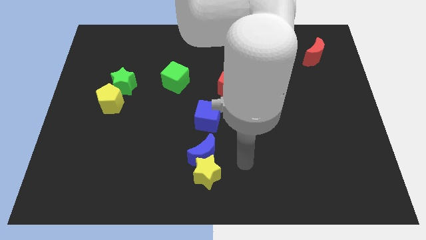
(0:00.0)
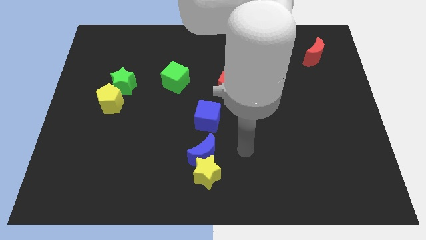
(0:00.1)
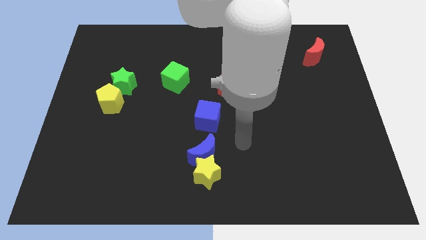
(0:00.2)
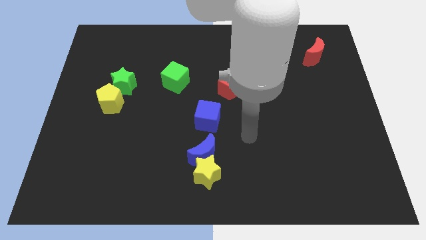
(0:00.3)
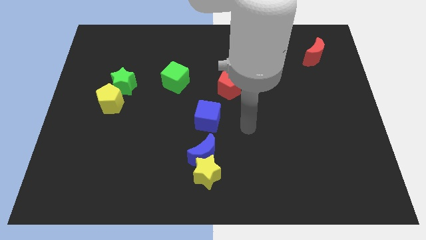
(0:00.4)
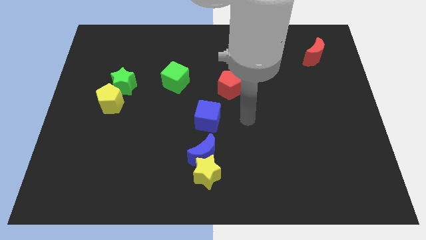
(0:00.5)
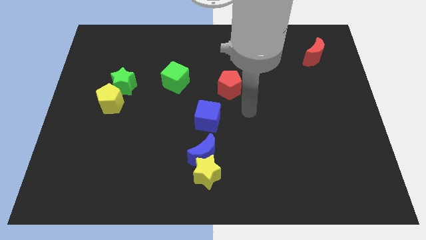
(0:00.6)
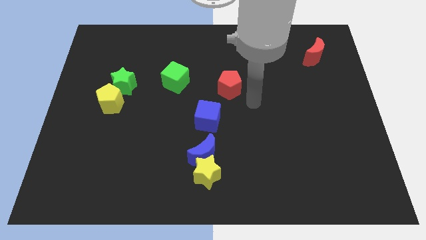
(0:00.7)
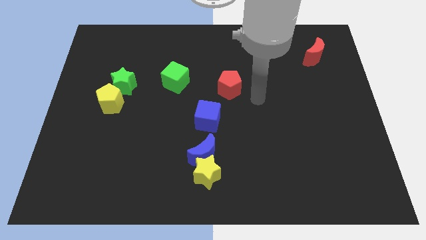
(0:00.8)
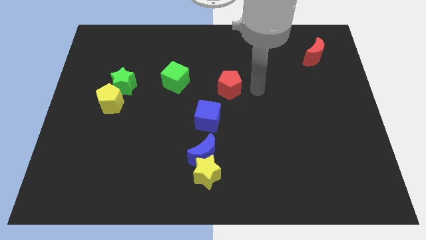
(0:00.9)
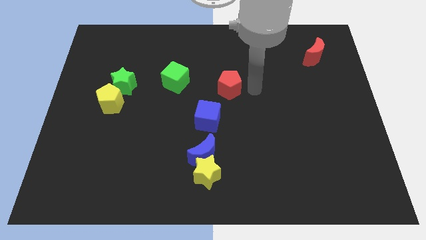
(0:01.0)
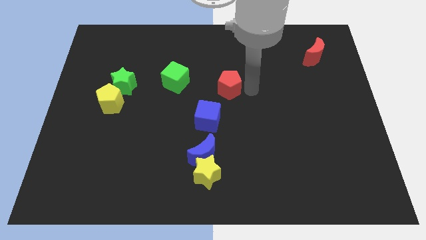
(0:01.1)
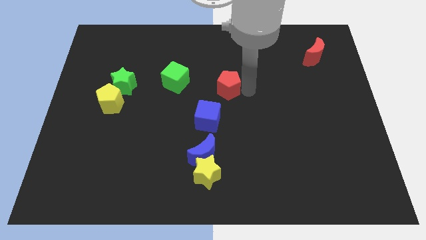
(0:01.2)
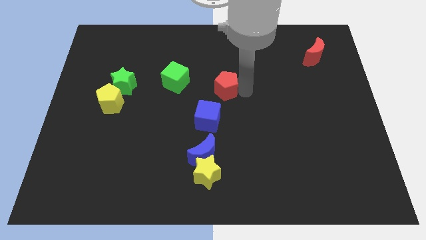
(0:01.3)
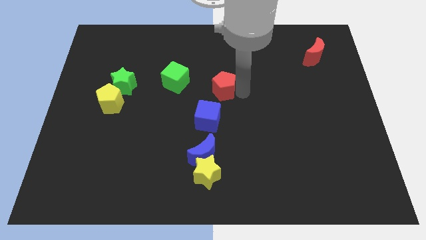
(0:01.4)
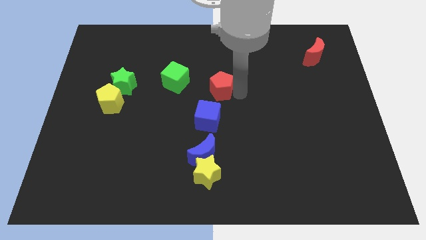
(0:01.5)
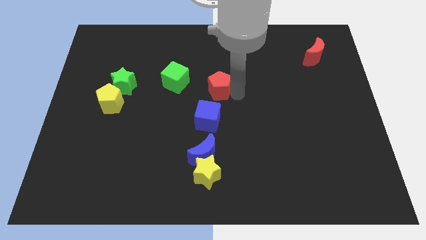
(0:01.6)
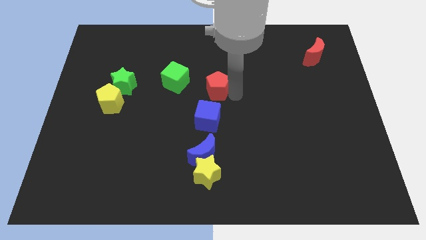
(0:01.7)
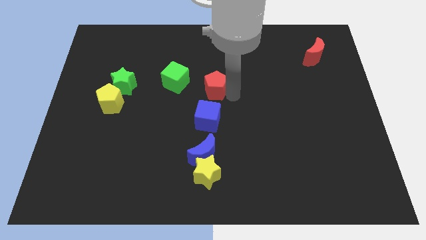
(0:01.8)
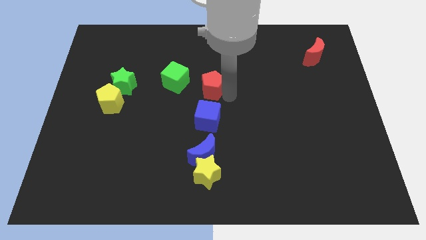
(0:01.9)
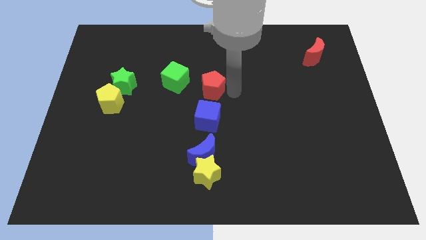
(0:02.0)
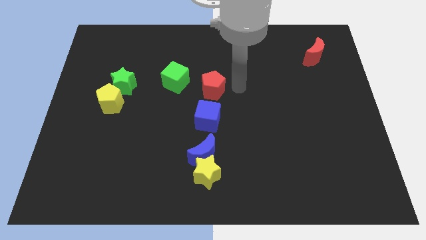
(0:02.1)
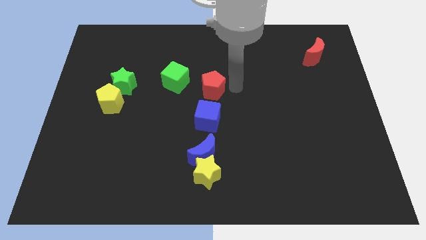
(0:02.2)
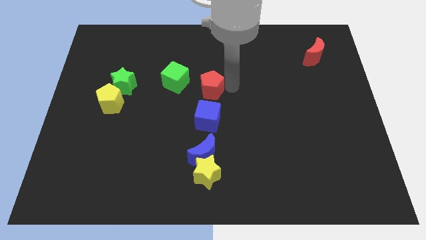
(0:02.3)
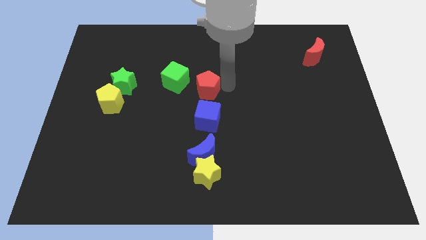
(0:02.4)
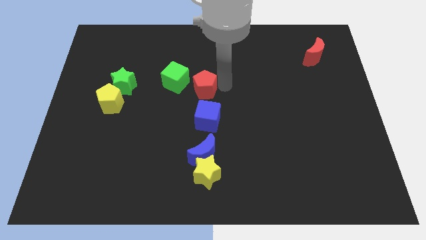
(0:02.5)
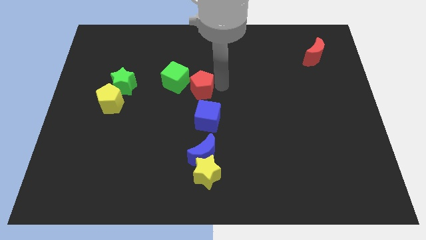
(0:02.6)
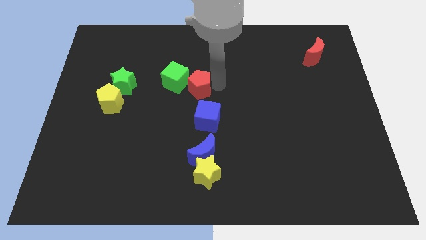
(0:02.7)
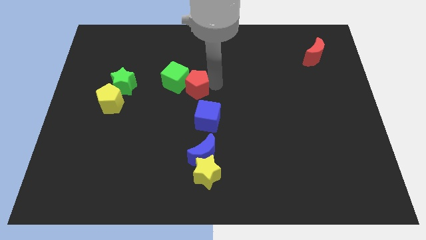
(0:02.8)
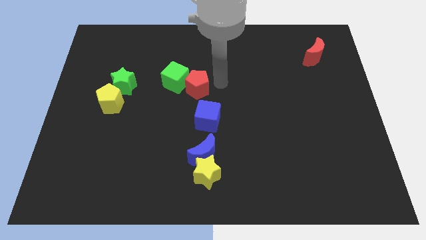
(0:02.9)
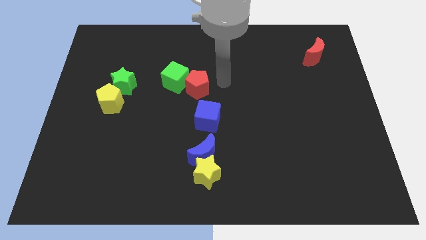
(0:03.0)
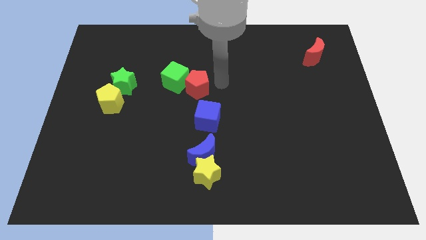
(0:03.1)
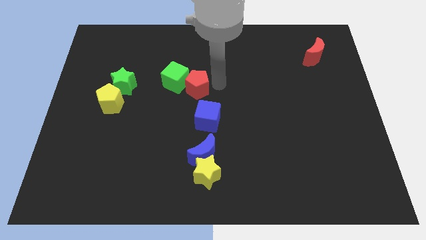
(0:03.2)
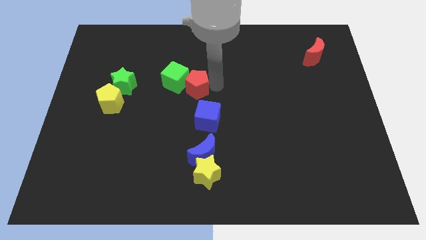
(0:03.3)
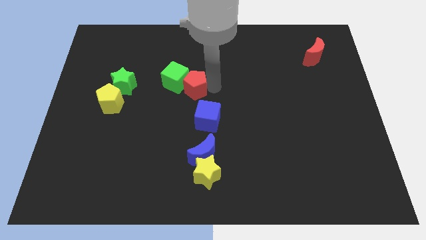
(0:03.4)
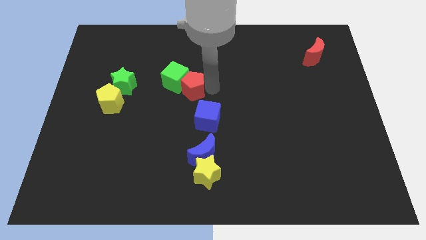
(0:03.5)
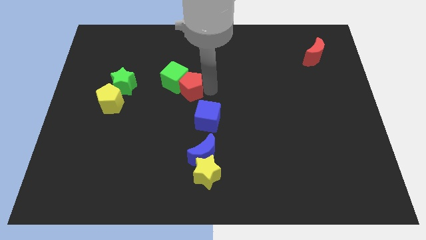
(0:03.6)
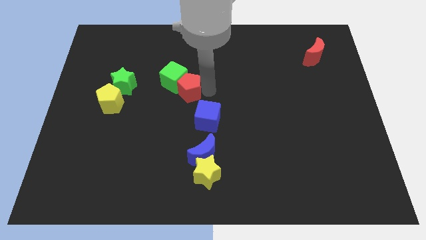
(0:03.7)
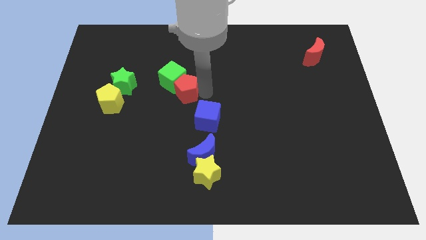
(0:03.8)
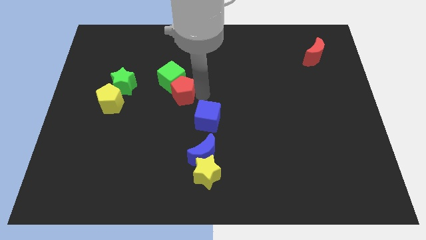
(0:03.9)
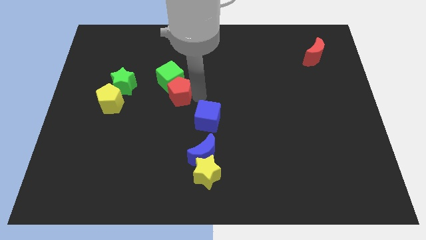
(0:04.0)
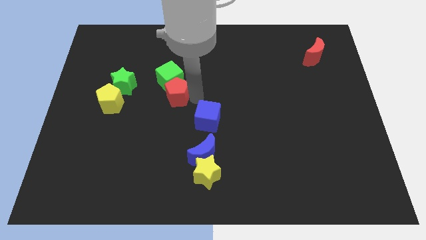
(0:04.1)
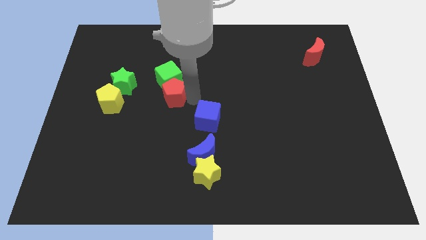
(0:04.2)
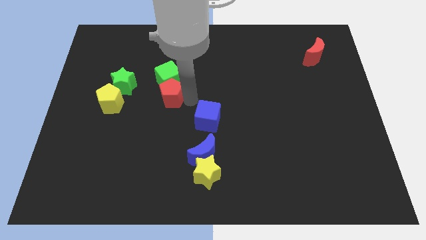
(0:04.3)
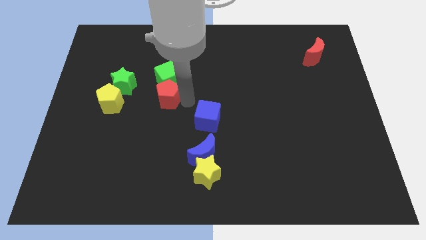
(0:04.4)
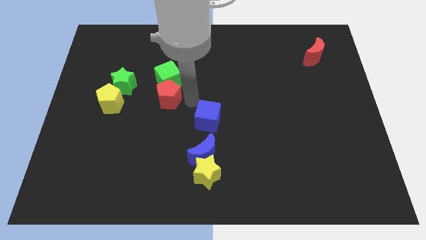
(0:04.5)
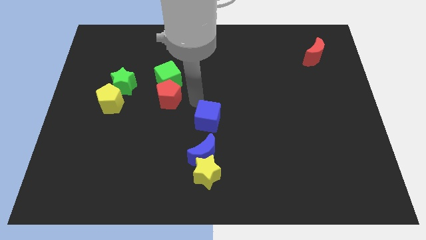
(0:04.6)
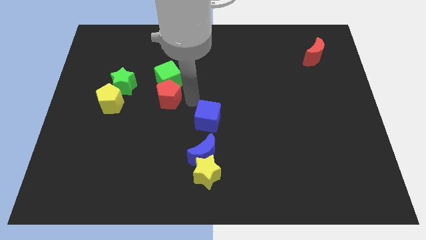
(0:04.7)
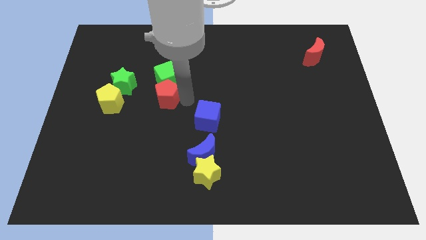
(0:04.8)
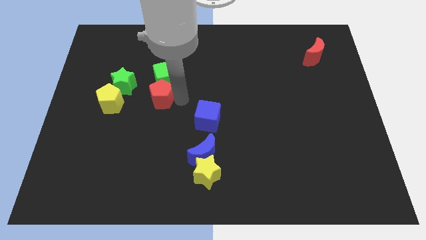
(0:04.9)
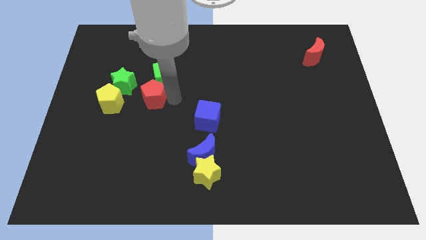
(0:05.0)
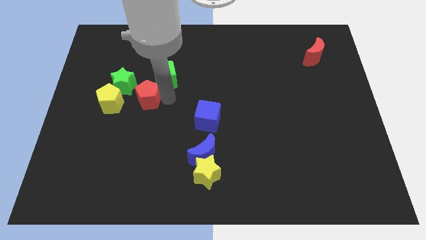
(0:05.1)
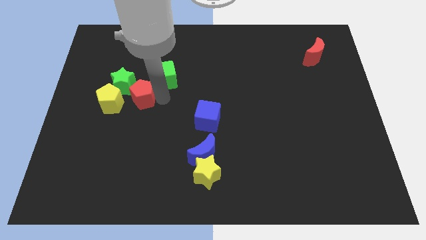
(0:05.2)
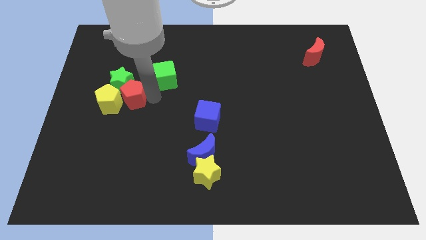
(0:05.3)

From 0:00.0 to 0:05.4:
slide the red pentagon towards the yellow pentagon

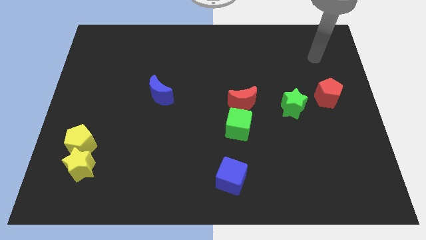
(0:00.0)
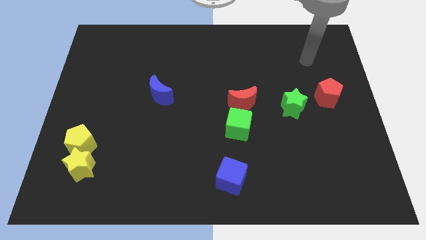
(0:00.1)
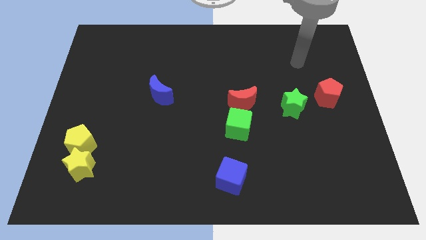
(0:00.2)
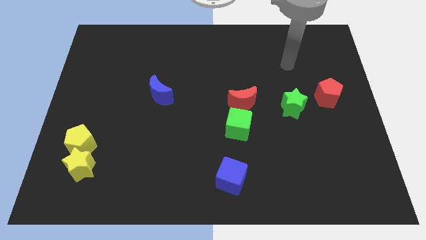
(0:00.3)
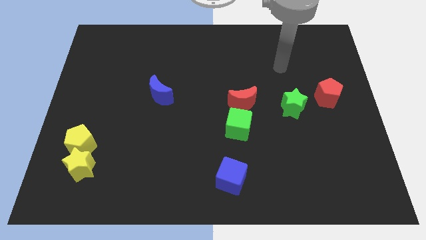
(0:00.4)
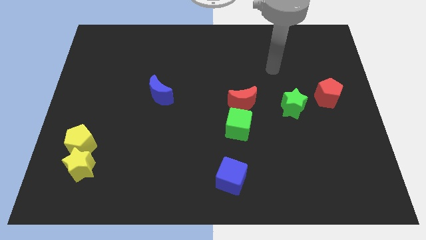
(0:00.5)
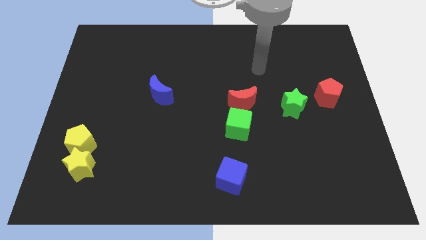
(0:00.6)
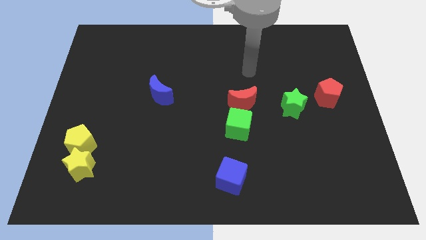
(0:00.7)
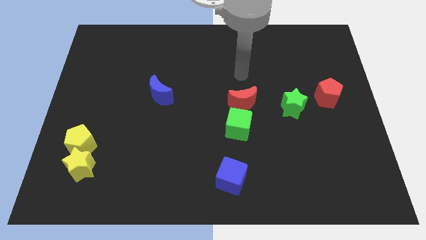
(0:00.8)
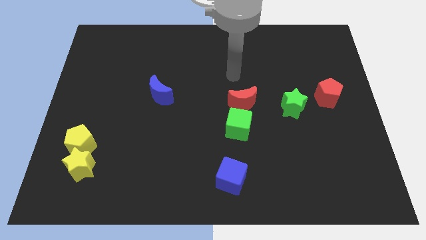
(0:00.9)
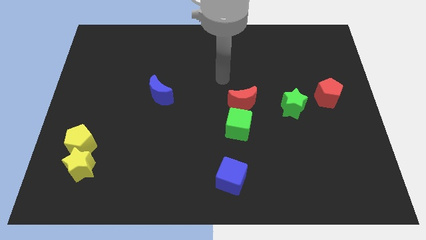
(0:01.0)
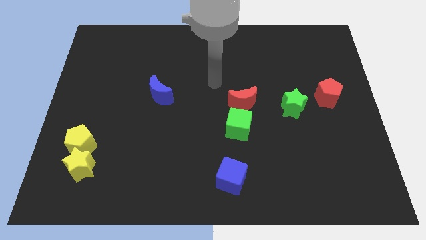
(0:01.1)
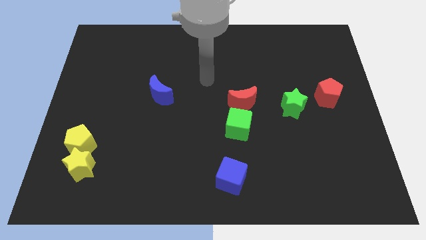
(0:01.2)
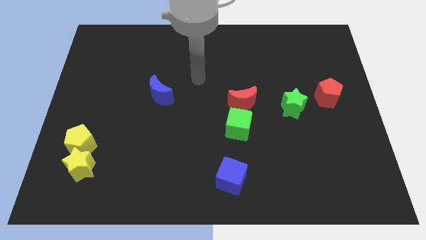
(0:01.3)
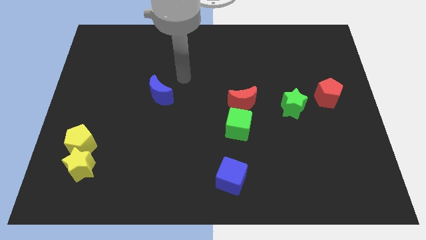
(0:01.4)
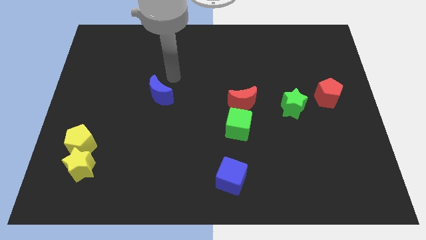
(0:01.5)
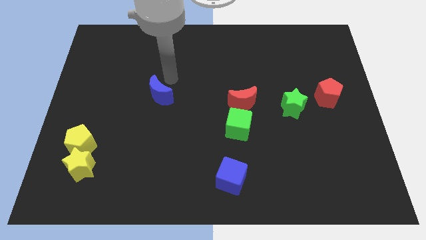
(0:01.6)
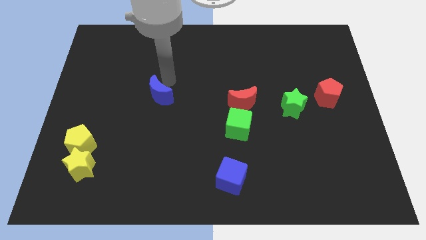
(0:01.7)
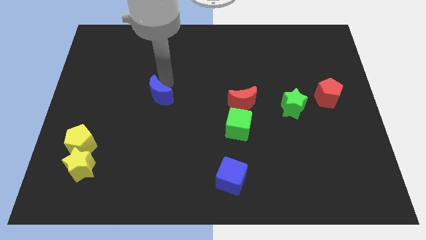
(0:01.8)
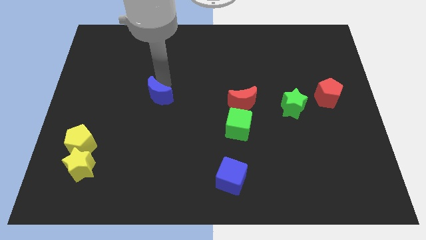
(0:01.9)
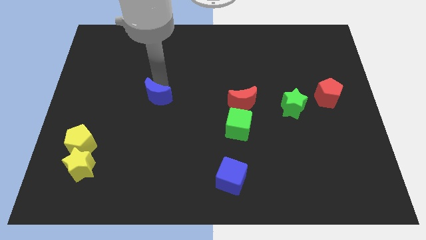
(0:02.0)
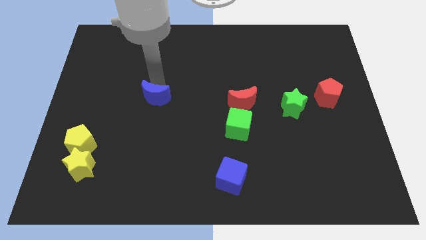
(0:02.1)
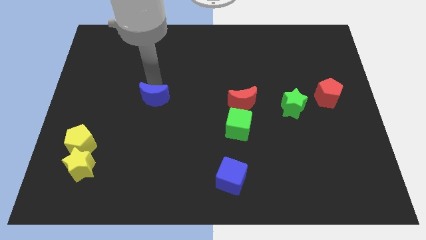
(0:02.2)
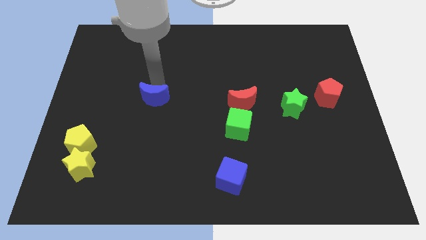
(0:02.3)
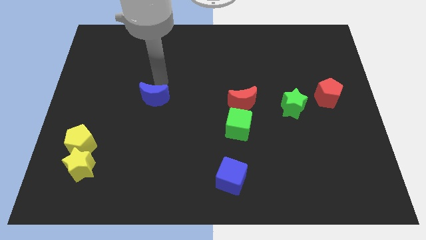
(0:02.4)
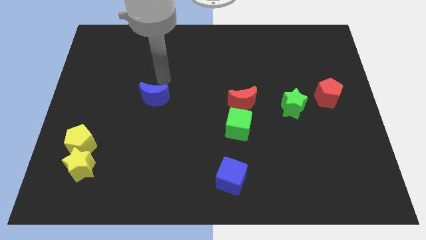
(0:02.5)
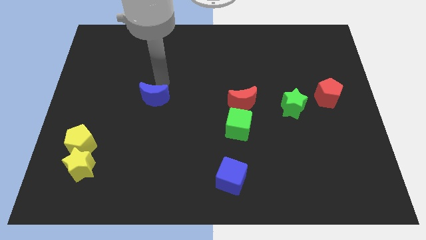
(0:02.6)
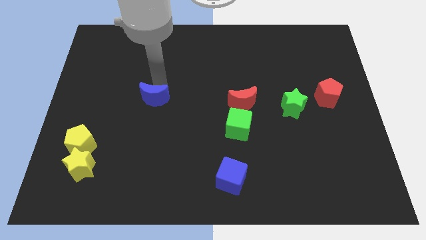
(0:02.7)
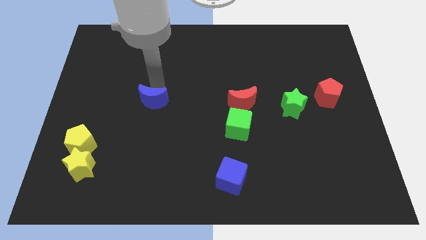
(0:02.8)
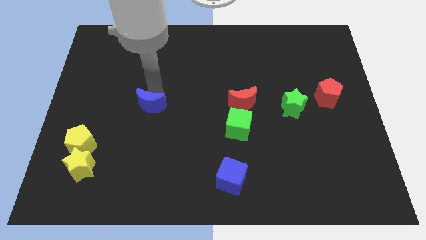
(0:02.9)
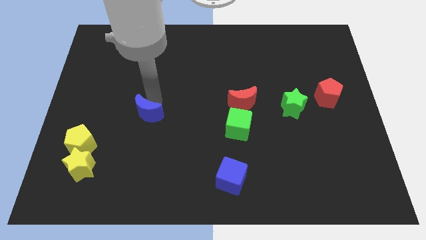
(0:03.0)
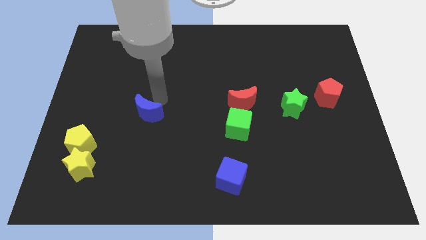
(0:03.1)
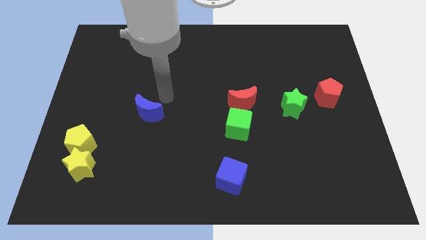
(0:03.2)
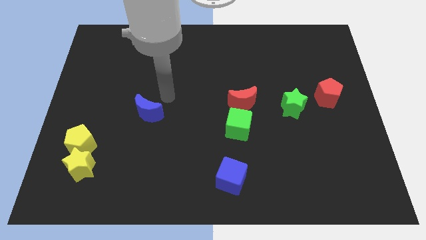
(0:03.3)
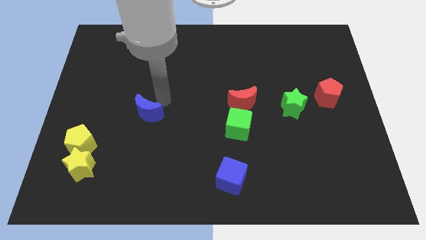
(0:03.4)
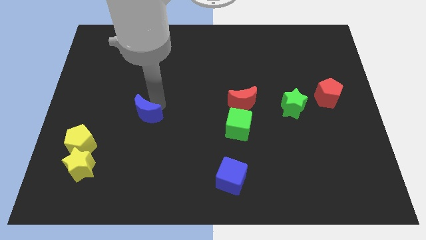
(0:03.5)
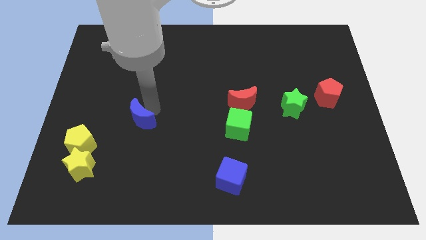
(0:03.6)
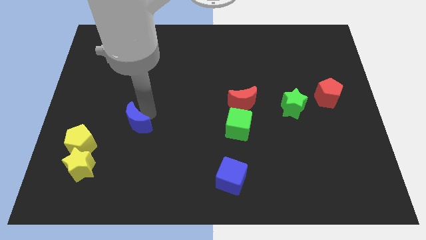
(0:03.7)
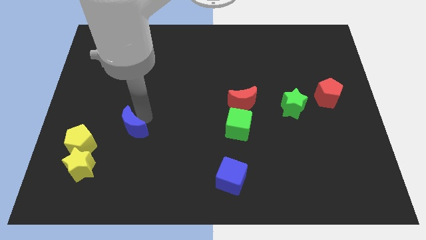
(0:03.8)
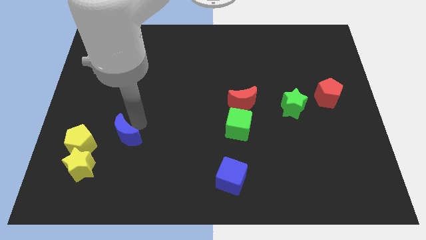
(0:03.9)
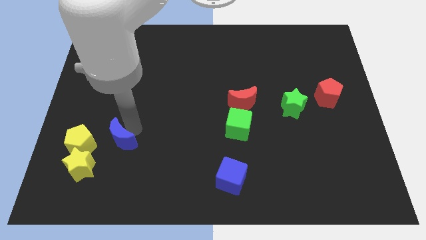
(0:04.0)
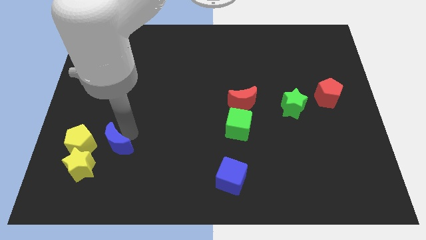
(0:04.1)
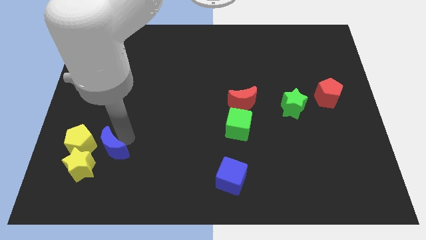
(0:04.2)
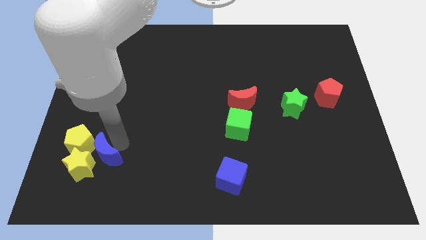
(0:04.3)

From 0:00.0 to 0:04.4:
put the blue moon towards the yellow star
